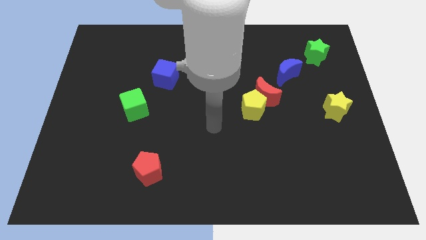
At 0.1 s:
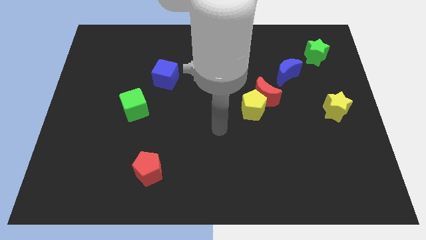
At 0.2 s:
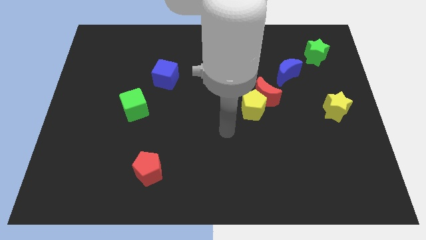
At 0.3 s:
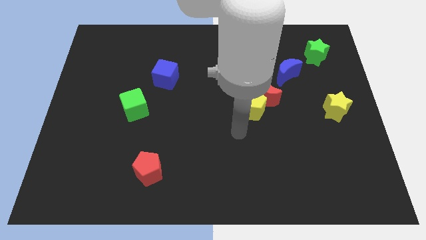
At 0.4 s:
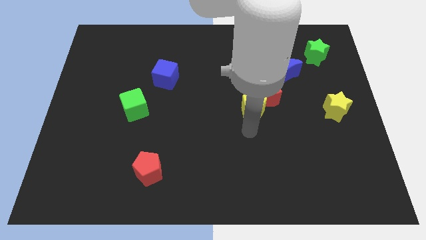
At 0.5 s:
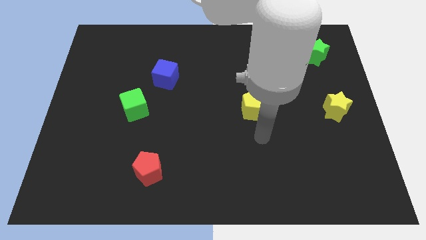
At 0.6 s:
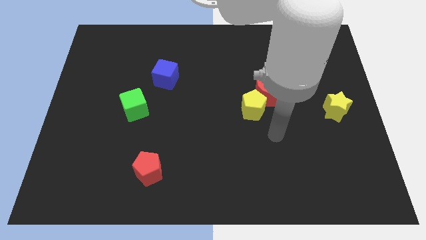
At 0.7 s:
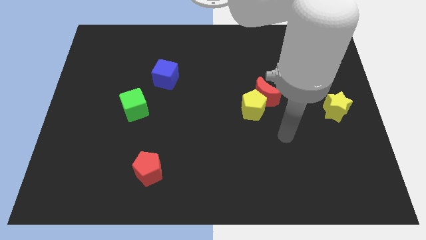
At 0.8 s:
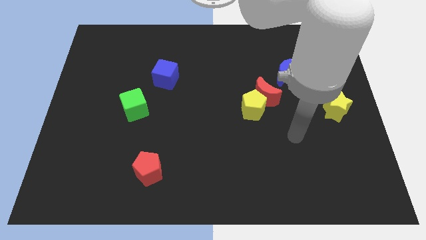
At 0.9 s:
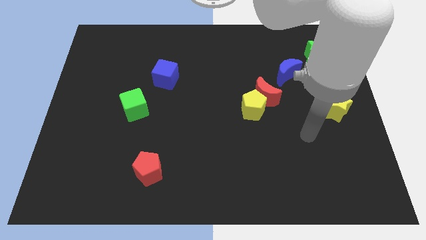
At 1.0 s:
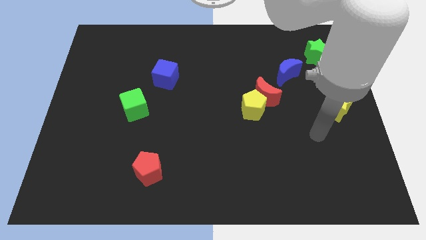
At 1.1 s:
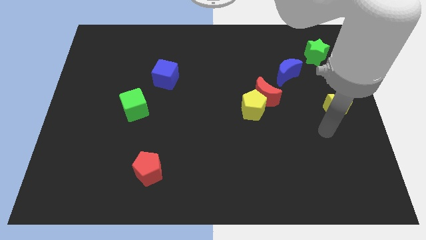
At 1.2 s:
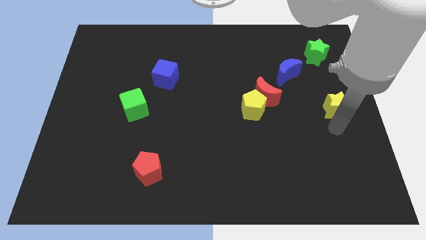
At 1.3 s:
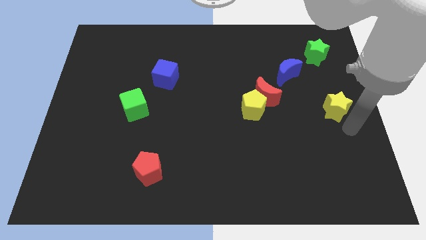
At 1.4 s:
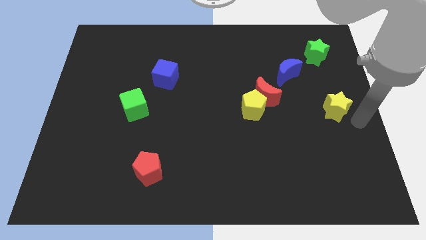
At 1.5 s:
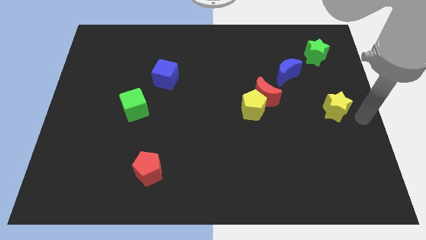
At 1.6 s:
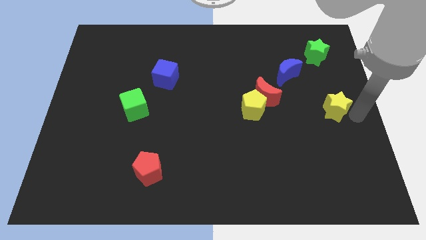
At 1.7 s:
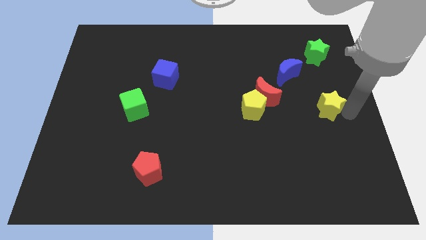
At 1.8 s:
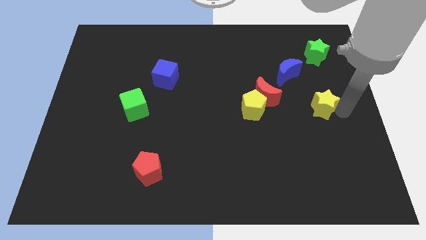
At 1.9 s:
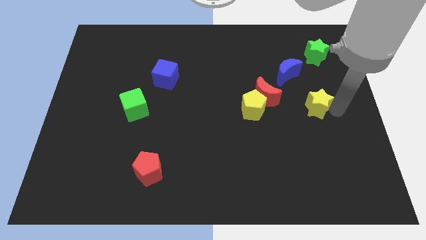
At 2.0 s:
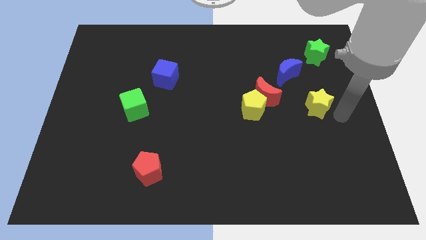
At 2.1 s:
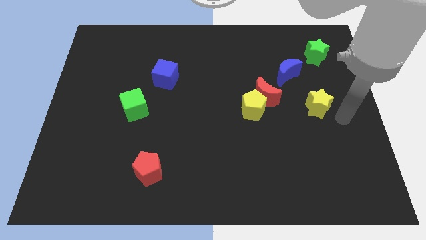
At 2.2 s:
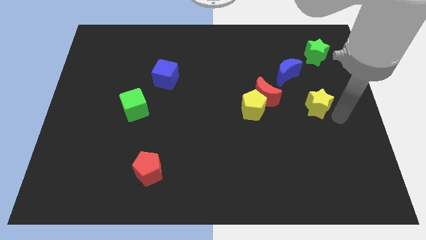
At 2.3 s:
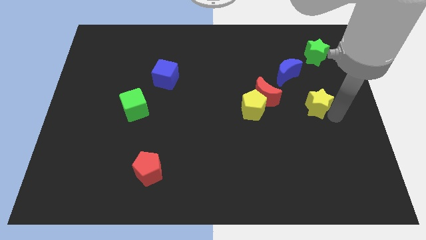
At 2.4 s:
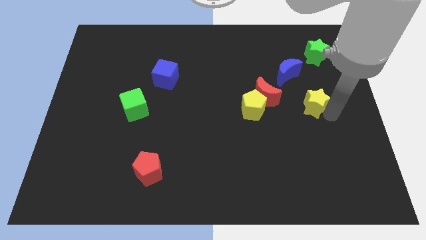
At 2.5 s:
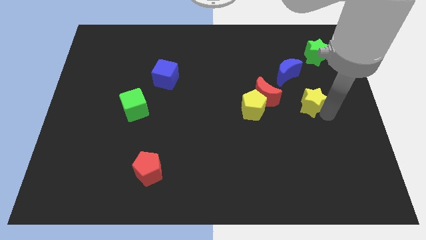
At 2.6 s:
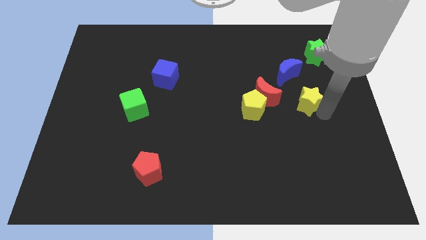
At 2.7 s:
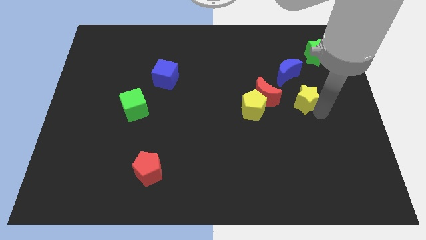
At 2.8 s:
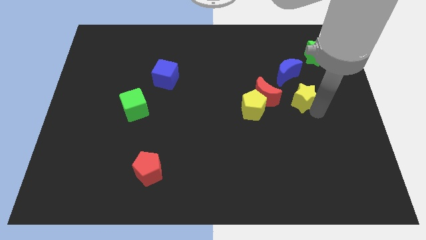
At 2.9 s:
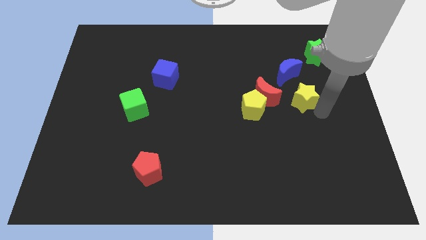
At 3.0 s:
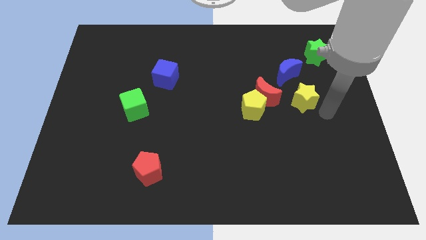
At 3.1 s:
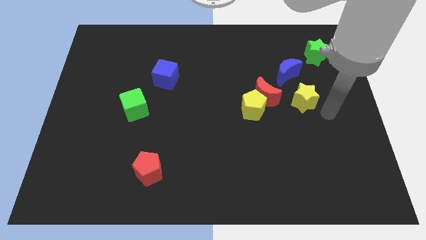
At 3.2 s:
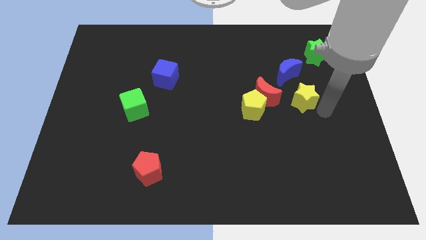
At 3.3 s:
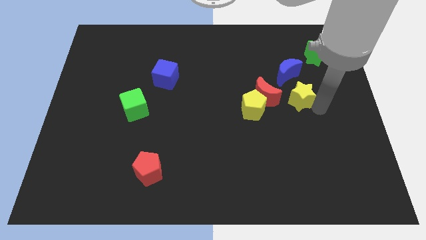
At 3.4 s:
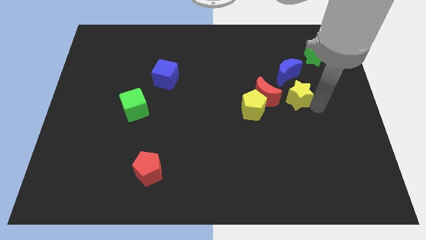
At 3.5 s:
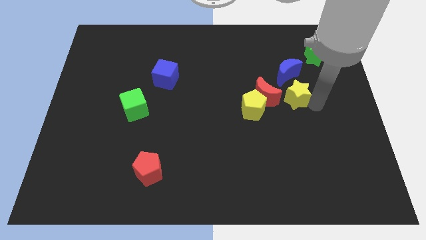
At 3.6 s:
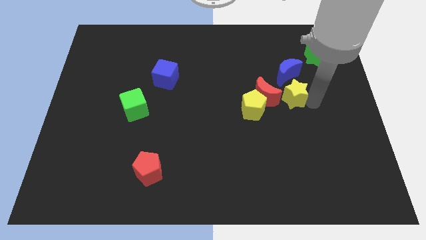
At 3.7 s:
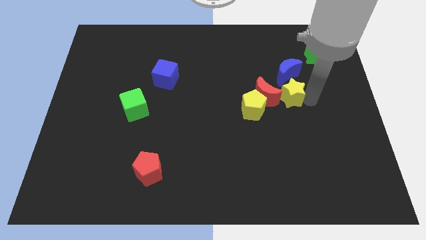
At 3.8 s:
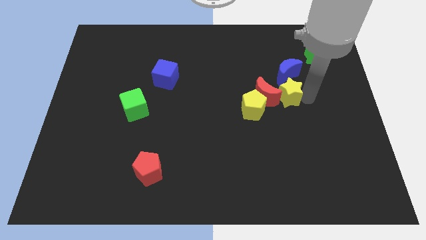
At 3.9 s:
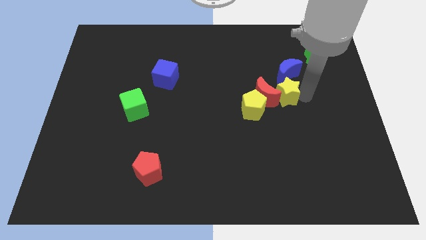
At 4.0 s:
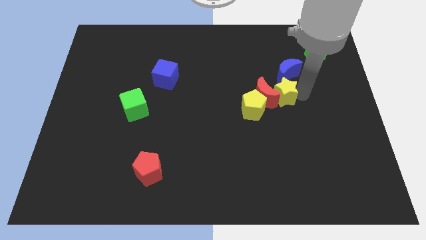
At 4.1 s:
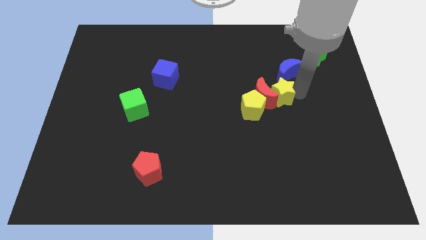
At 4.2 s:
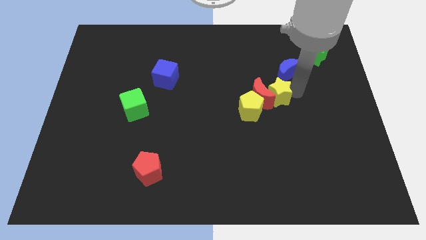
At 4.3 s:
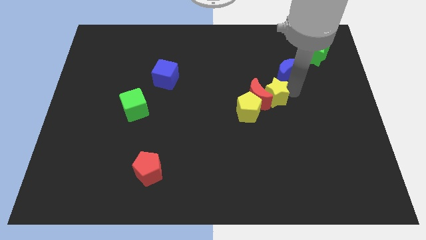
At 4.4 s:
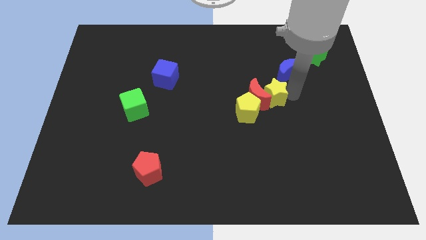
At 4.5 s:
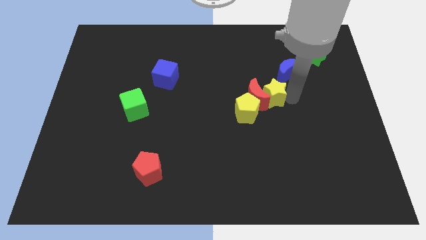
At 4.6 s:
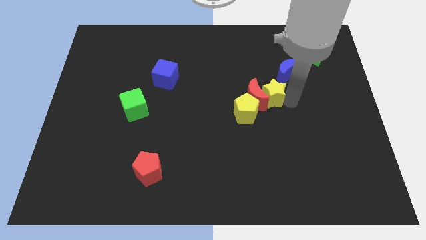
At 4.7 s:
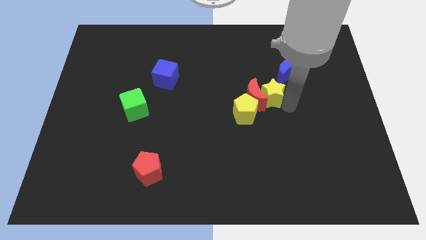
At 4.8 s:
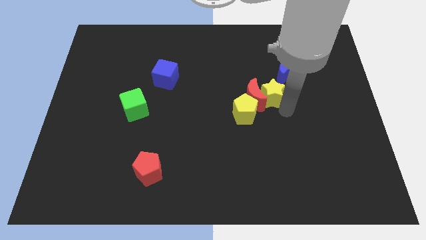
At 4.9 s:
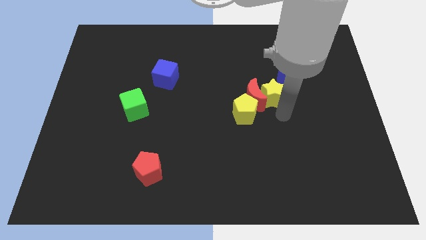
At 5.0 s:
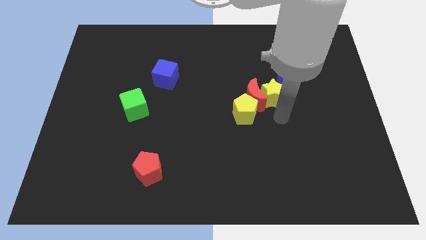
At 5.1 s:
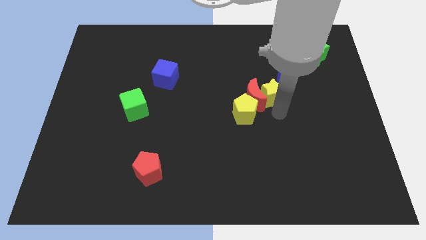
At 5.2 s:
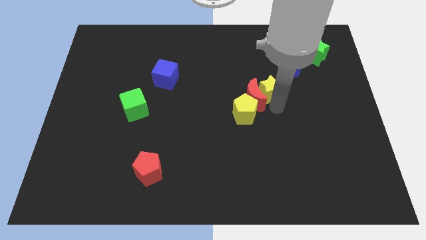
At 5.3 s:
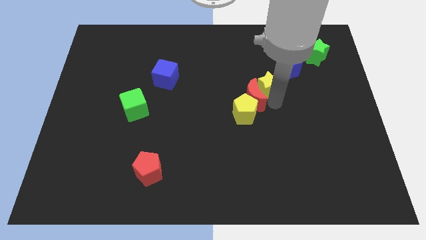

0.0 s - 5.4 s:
push the yellow star to the left of the blue moon

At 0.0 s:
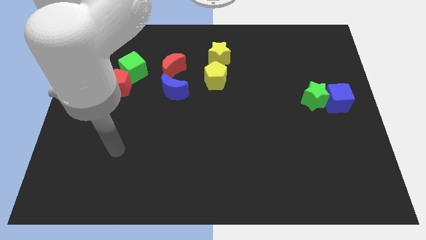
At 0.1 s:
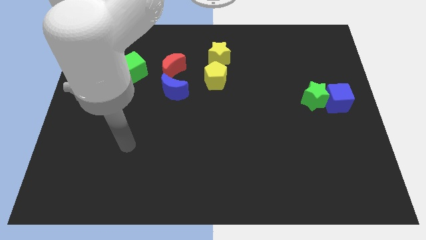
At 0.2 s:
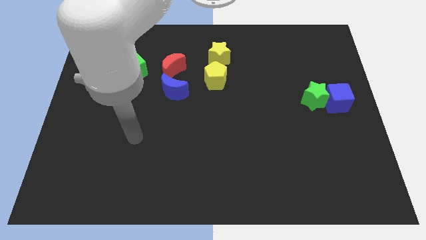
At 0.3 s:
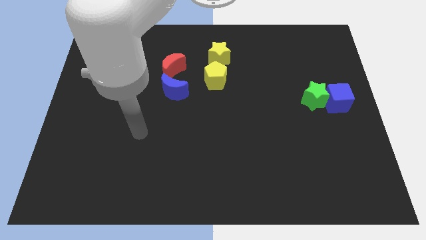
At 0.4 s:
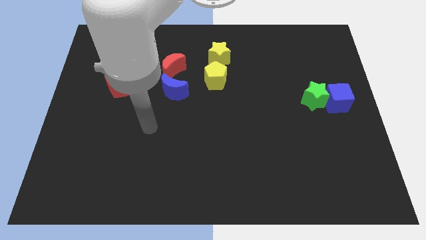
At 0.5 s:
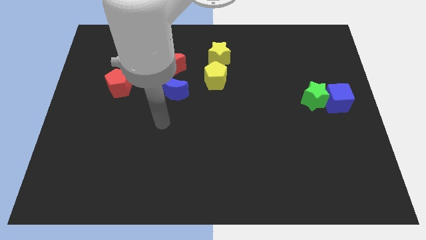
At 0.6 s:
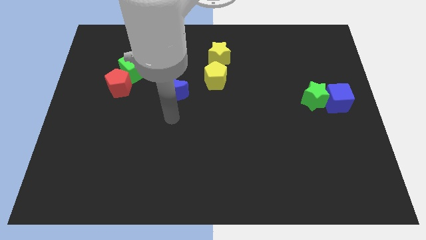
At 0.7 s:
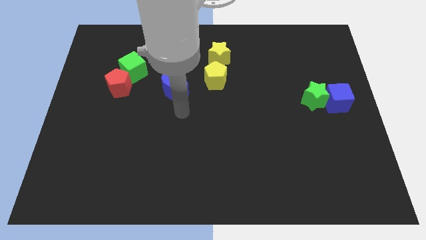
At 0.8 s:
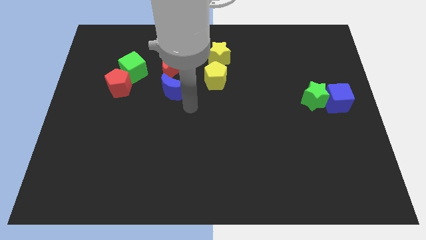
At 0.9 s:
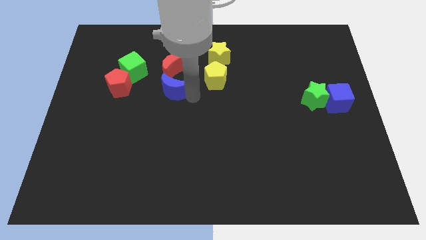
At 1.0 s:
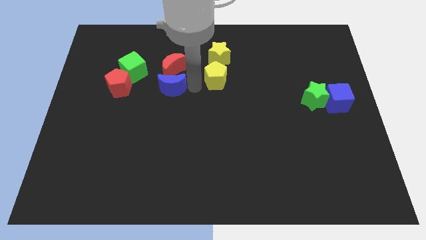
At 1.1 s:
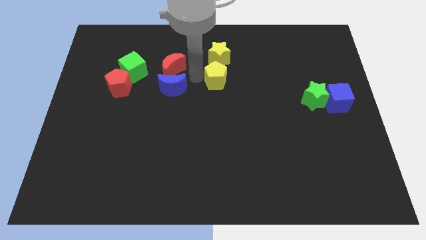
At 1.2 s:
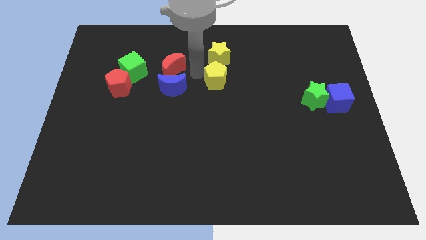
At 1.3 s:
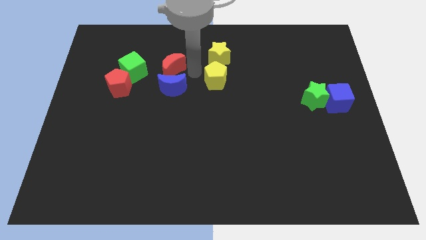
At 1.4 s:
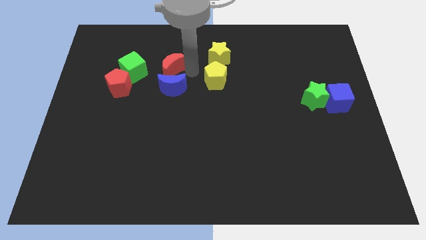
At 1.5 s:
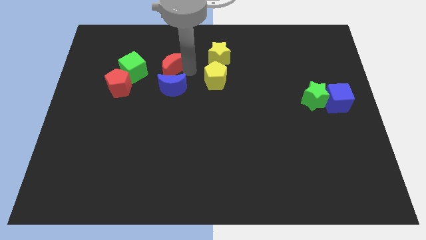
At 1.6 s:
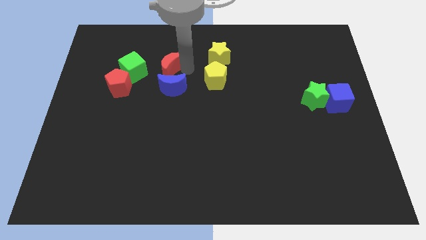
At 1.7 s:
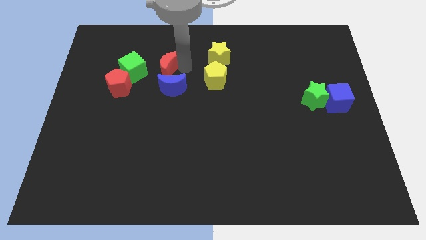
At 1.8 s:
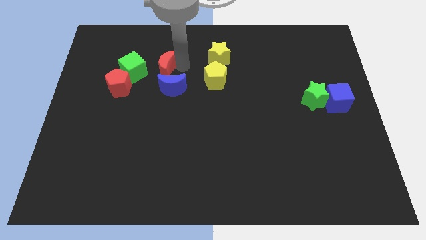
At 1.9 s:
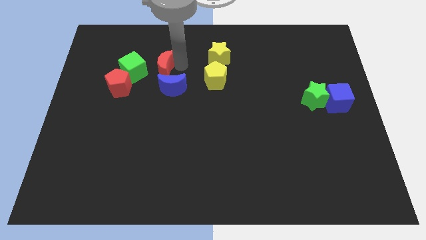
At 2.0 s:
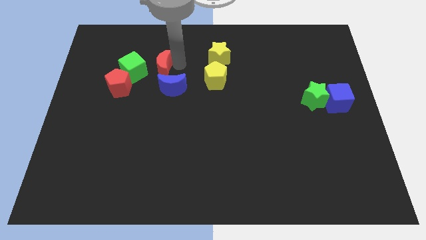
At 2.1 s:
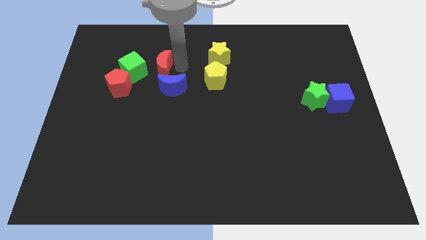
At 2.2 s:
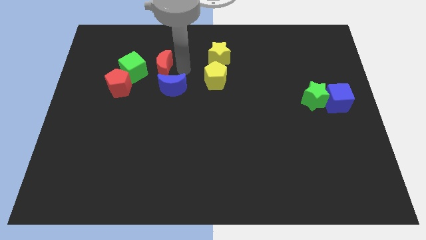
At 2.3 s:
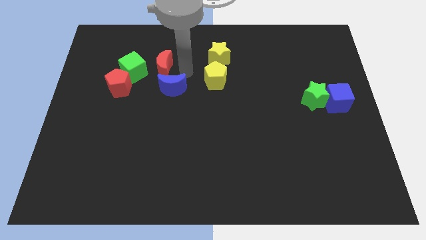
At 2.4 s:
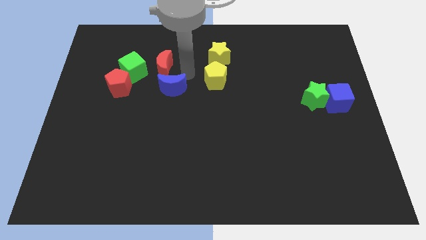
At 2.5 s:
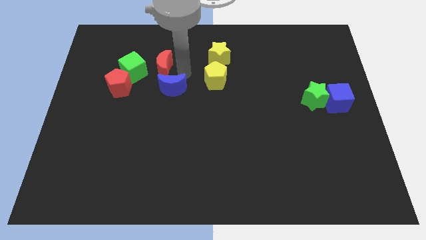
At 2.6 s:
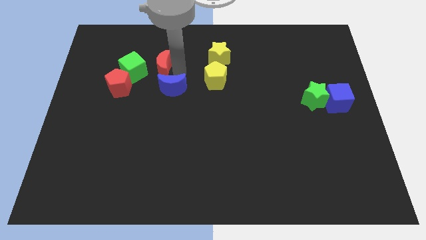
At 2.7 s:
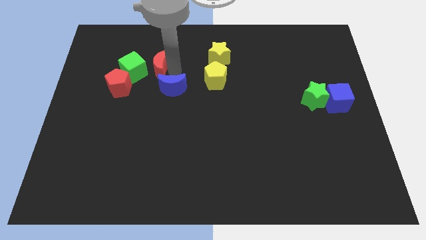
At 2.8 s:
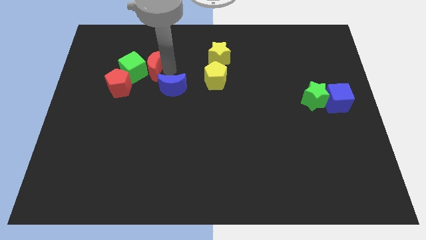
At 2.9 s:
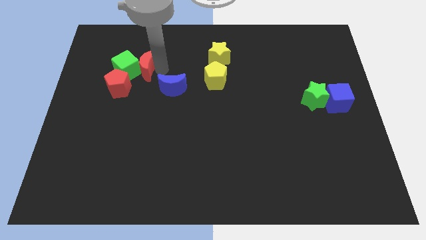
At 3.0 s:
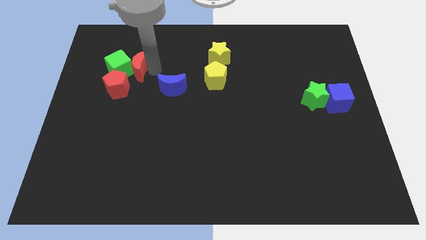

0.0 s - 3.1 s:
move the red moon above the red pentagon
